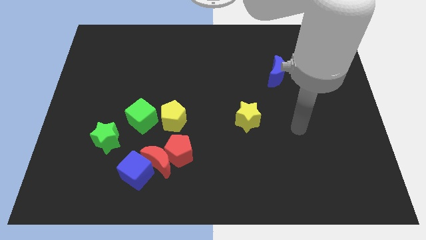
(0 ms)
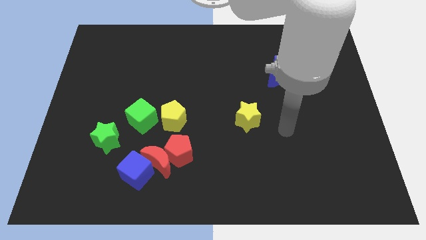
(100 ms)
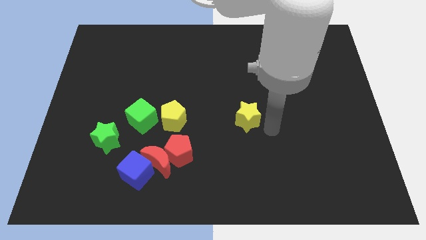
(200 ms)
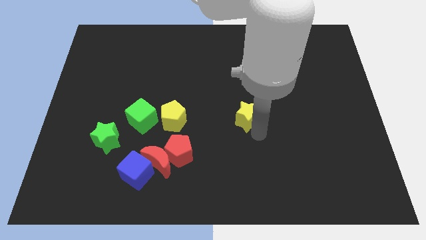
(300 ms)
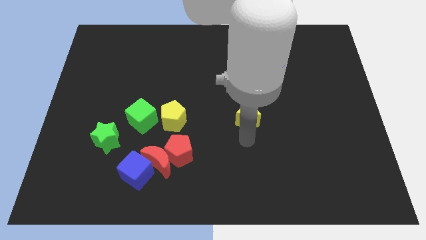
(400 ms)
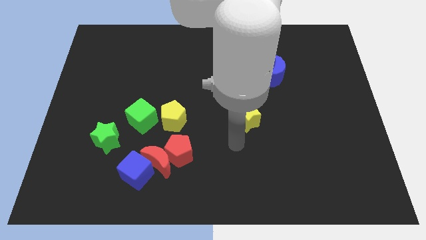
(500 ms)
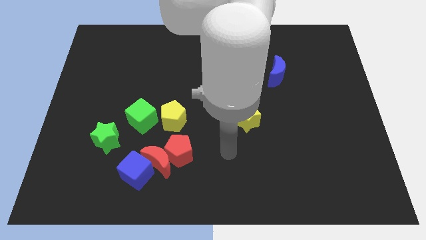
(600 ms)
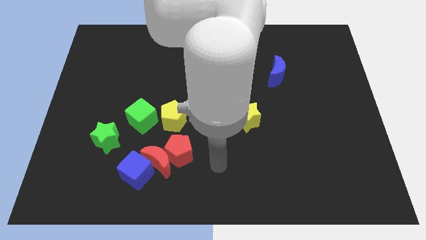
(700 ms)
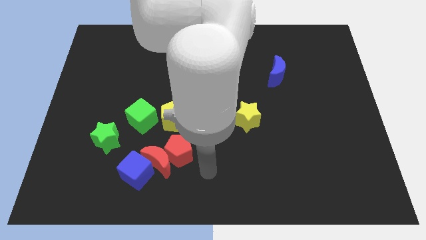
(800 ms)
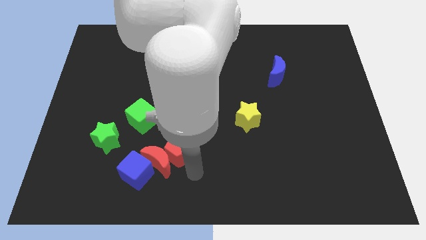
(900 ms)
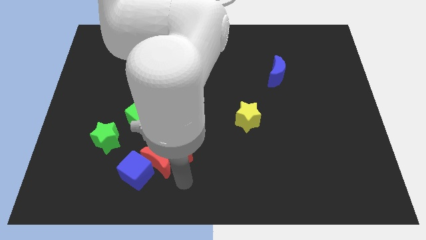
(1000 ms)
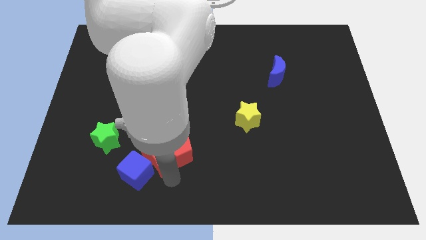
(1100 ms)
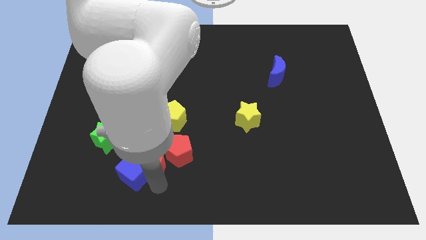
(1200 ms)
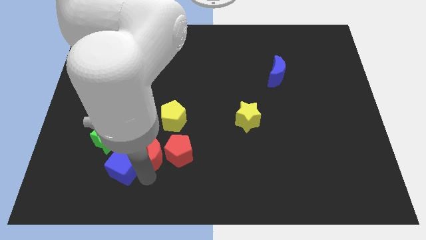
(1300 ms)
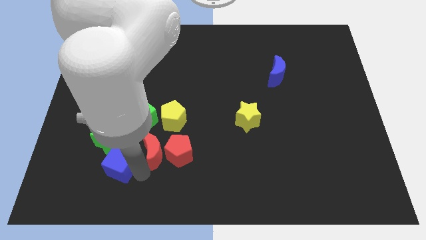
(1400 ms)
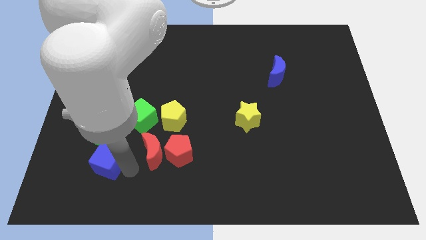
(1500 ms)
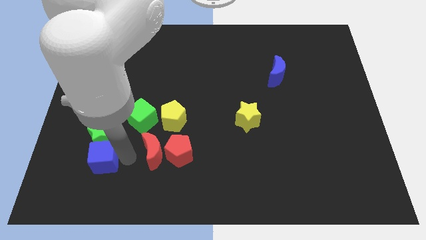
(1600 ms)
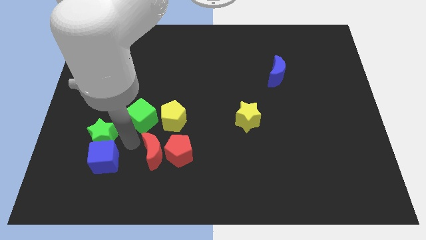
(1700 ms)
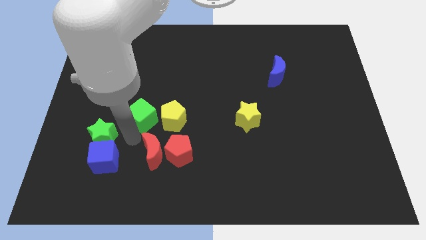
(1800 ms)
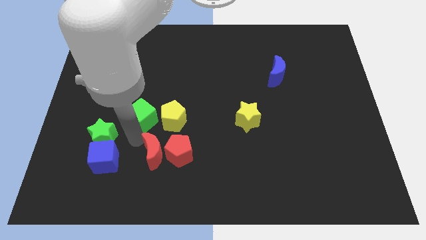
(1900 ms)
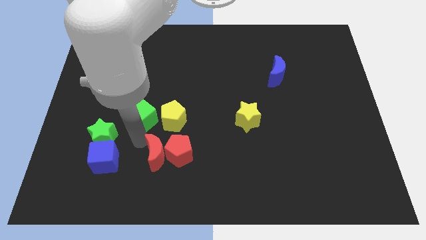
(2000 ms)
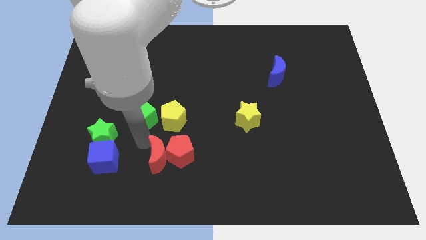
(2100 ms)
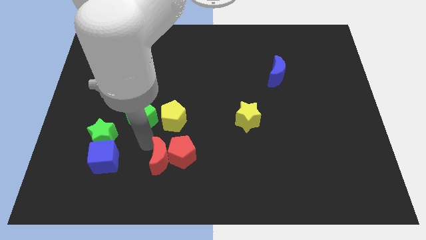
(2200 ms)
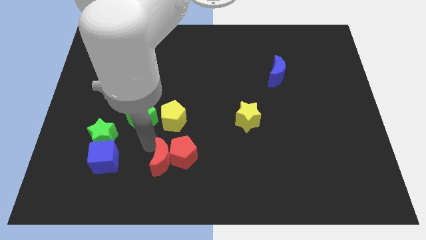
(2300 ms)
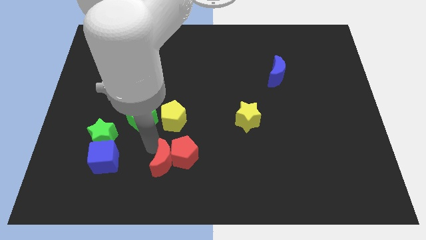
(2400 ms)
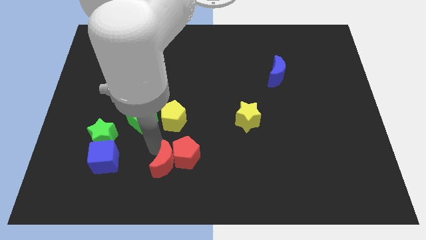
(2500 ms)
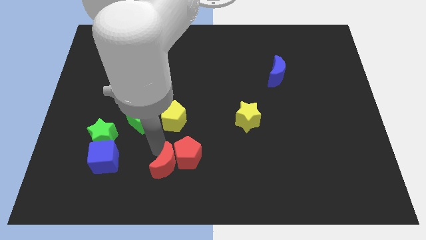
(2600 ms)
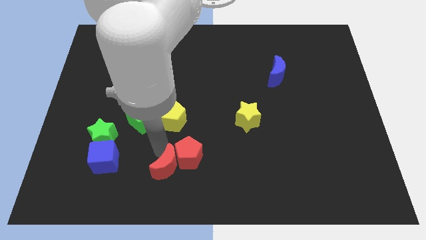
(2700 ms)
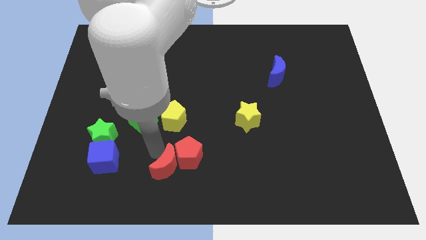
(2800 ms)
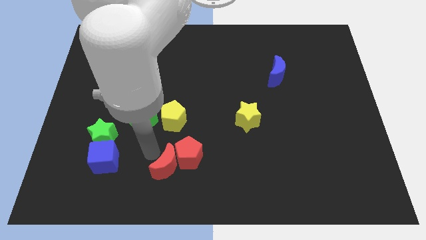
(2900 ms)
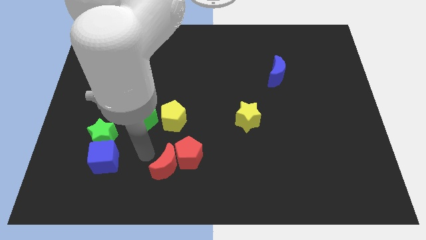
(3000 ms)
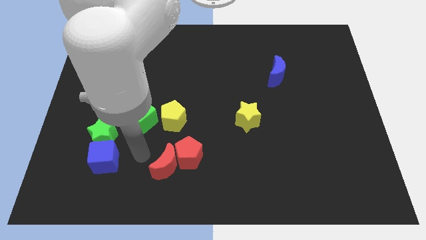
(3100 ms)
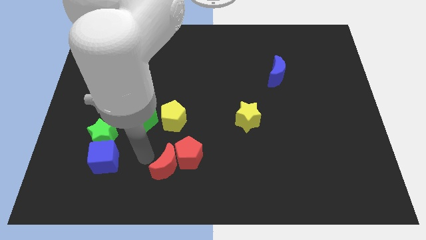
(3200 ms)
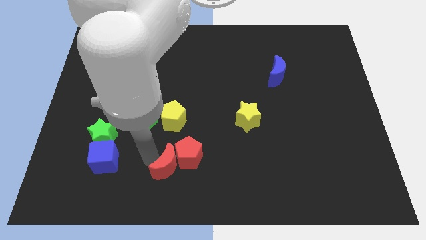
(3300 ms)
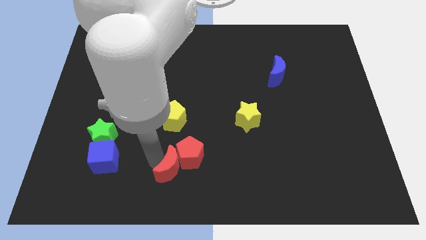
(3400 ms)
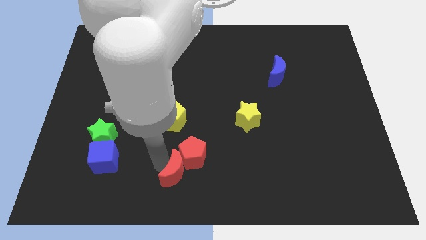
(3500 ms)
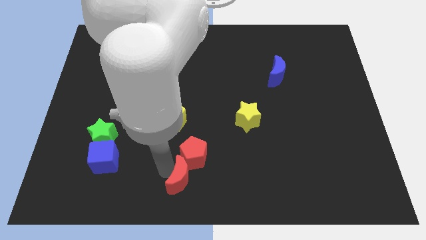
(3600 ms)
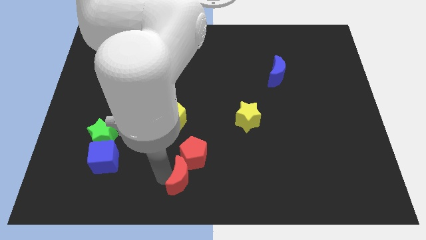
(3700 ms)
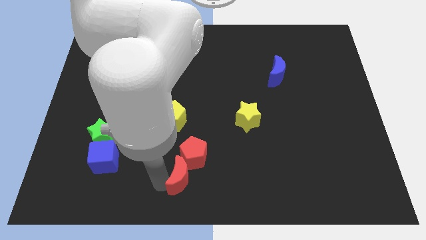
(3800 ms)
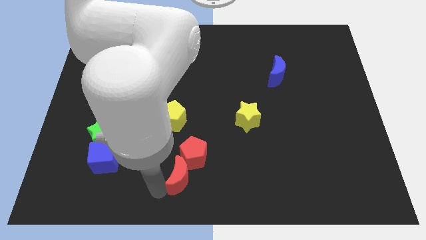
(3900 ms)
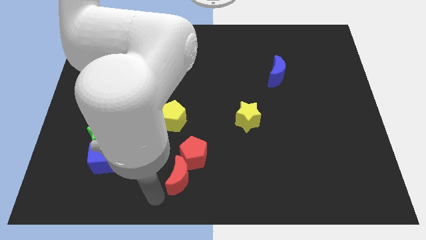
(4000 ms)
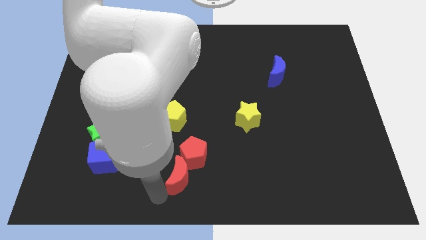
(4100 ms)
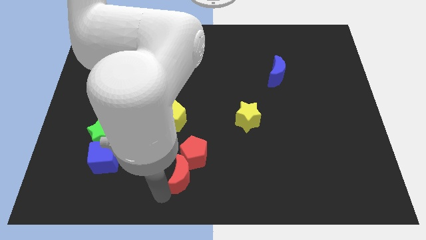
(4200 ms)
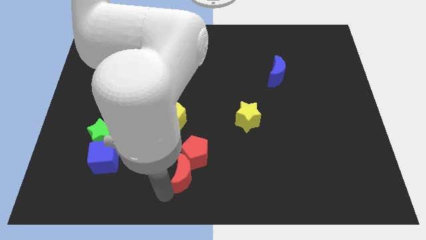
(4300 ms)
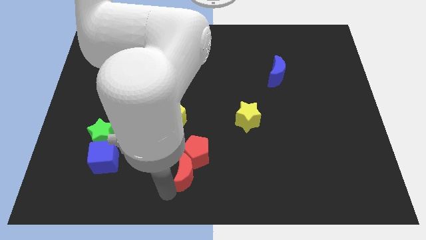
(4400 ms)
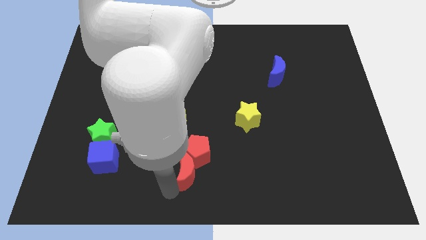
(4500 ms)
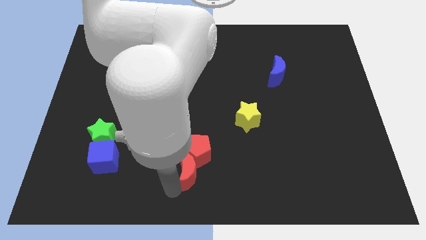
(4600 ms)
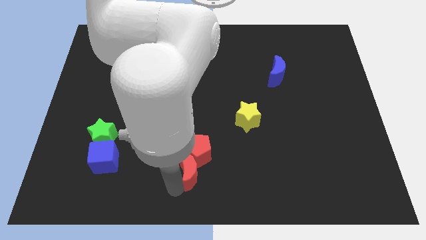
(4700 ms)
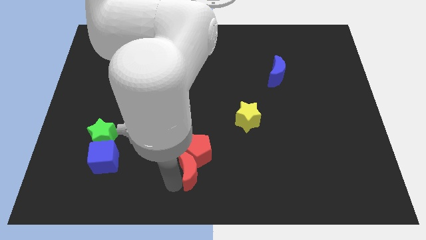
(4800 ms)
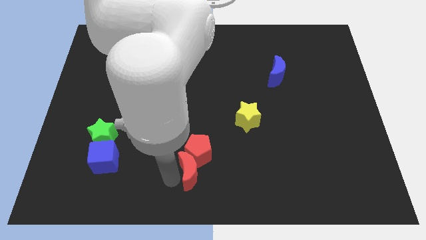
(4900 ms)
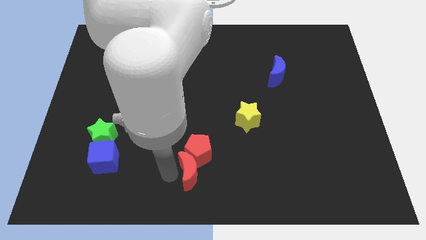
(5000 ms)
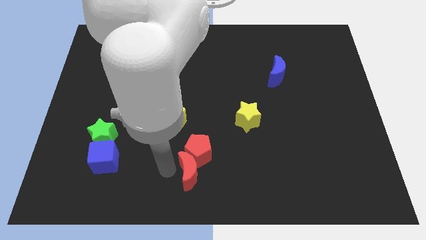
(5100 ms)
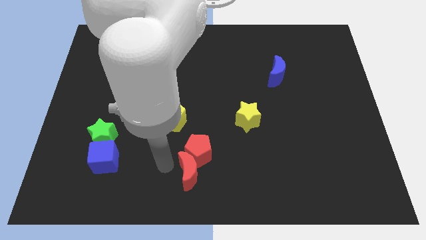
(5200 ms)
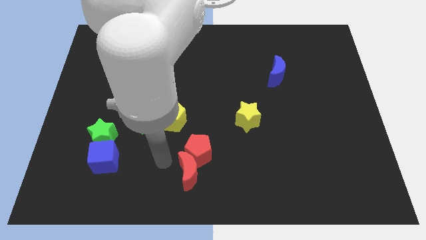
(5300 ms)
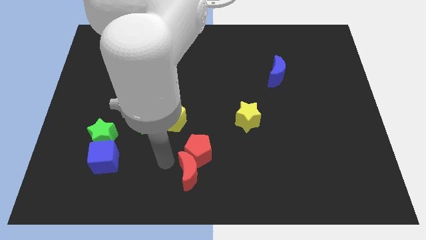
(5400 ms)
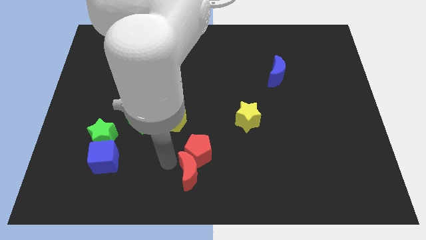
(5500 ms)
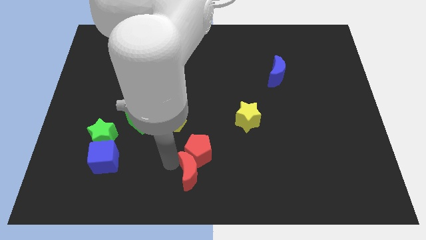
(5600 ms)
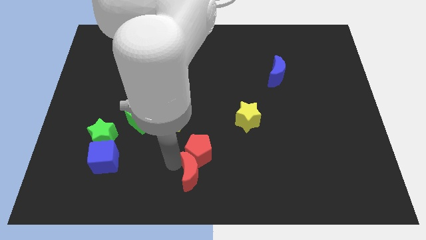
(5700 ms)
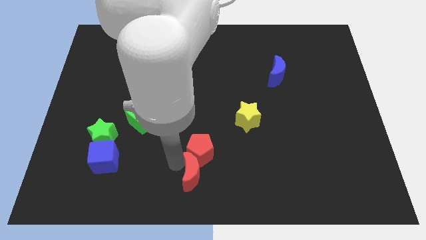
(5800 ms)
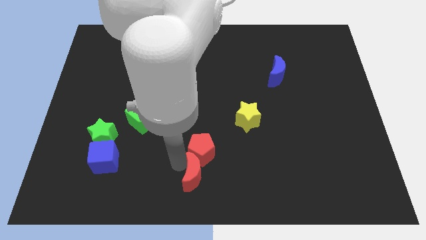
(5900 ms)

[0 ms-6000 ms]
separate the red moon from the red pentagon and blue cube

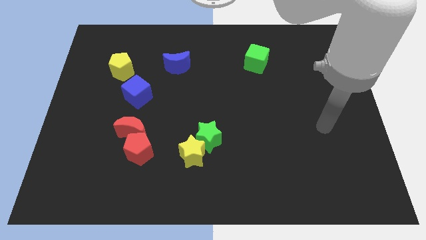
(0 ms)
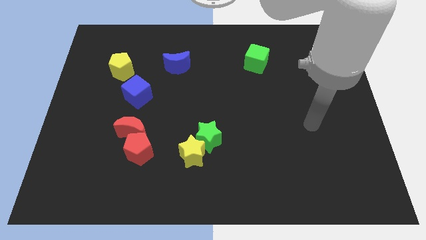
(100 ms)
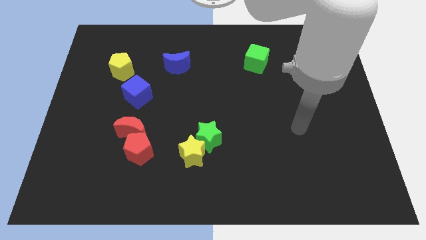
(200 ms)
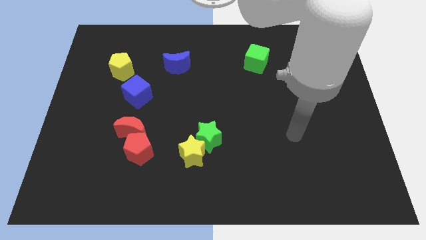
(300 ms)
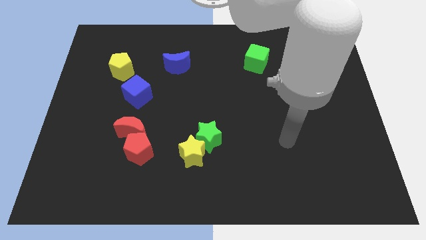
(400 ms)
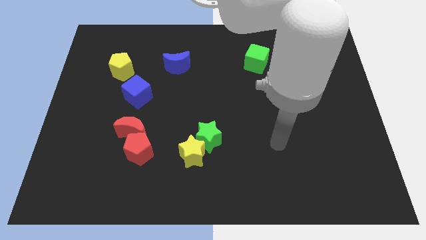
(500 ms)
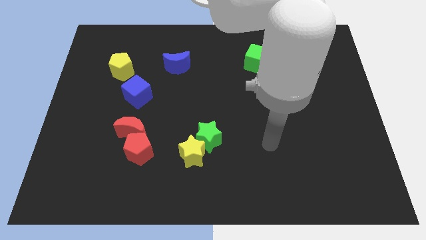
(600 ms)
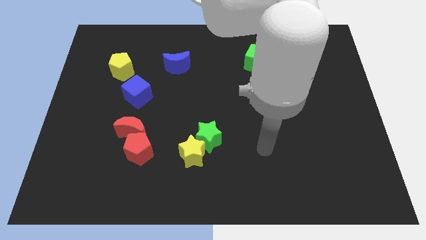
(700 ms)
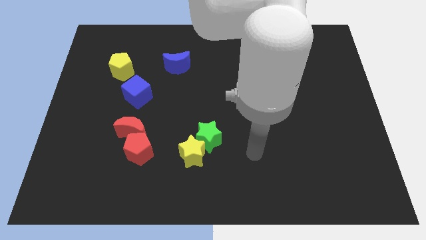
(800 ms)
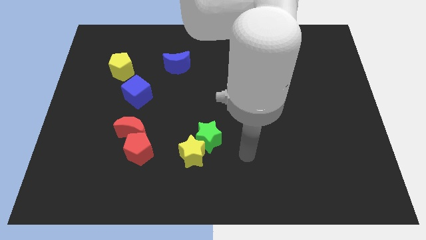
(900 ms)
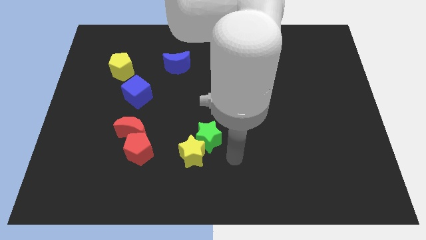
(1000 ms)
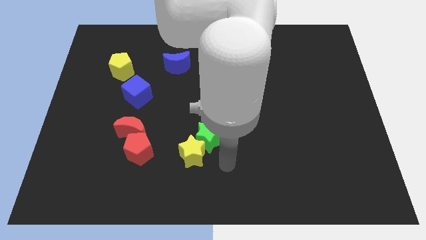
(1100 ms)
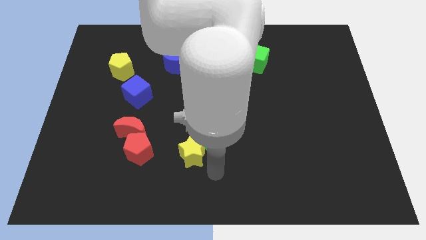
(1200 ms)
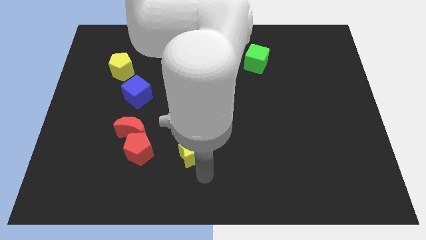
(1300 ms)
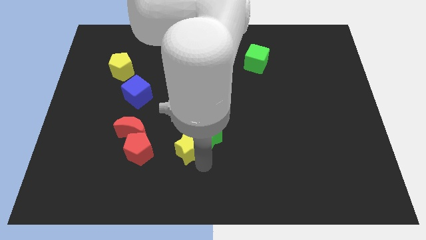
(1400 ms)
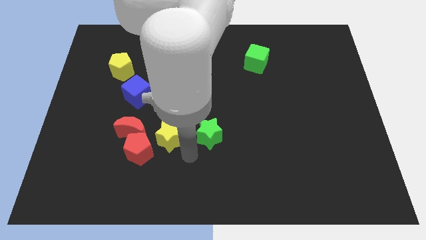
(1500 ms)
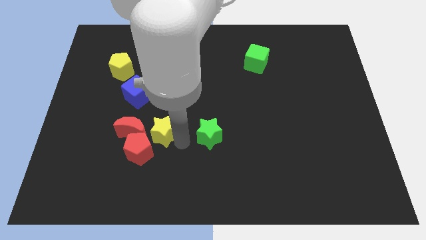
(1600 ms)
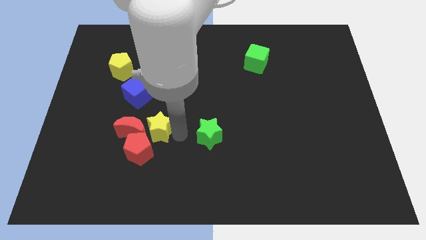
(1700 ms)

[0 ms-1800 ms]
pull the green star apart from the yellow star

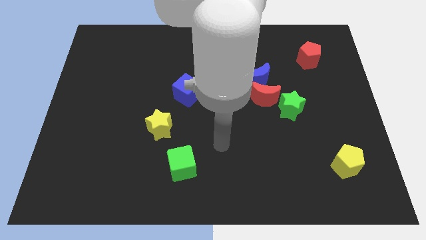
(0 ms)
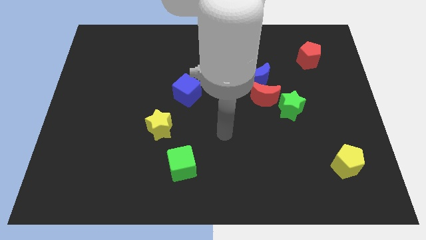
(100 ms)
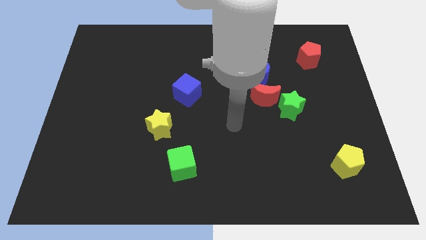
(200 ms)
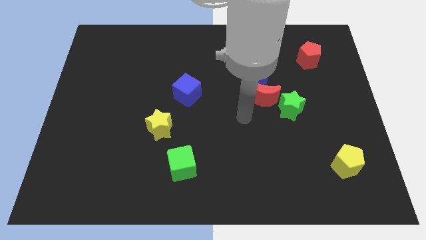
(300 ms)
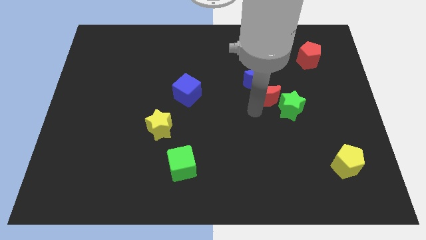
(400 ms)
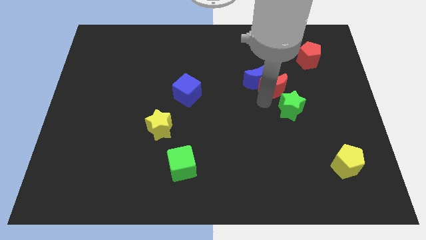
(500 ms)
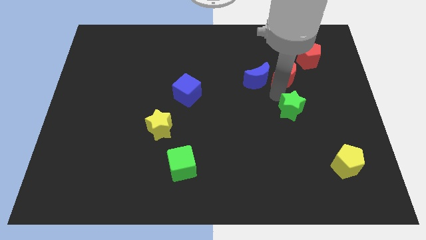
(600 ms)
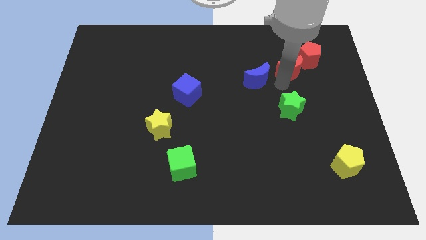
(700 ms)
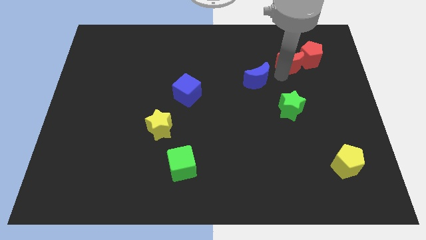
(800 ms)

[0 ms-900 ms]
move the blue moon away from the red moon

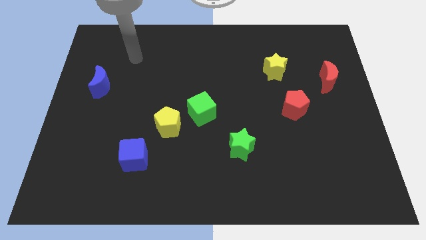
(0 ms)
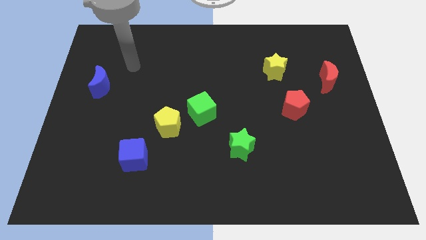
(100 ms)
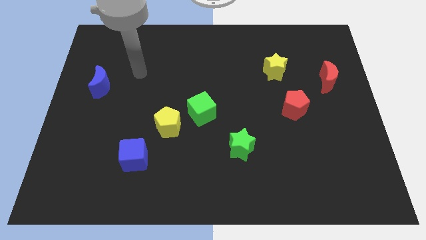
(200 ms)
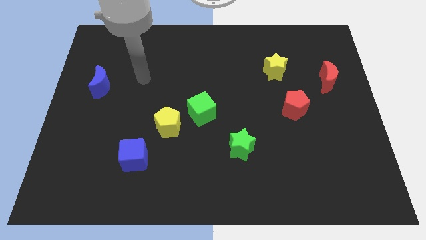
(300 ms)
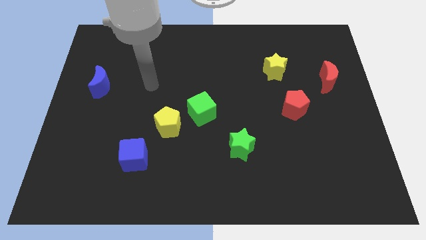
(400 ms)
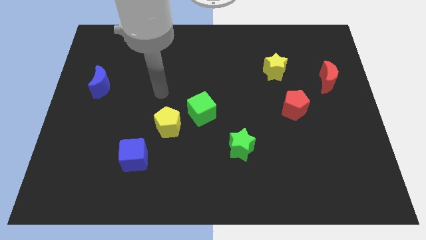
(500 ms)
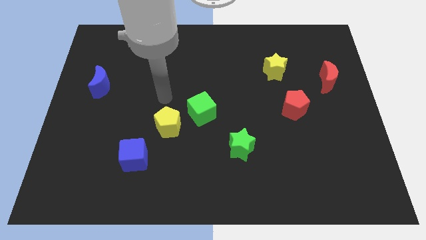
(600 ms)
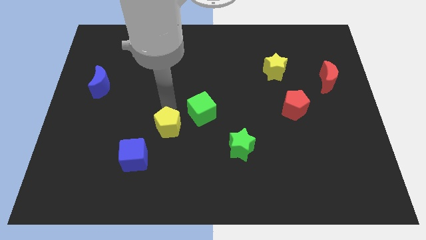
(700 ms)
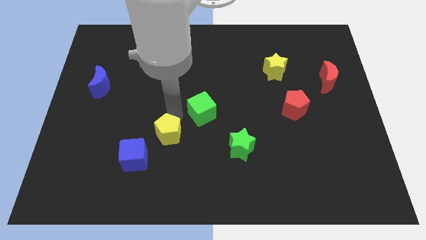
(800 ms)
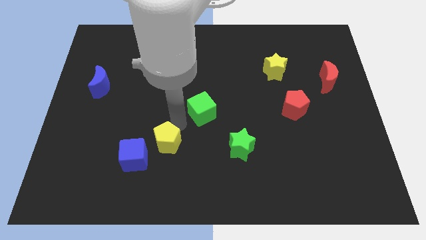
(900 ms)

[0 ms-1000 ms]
separate the green cube from the yellow pentagon
